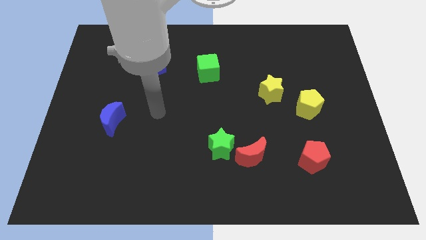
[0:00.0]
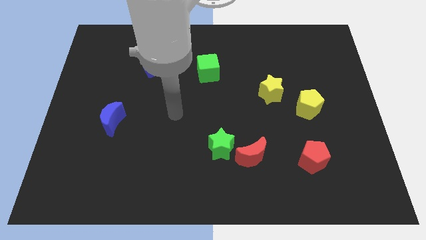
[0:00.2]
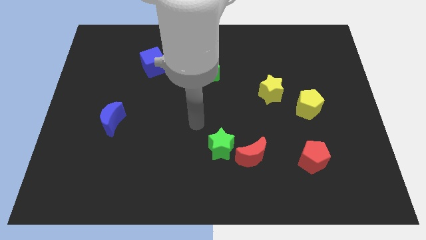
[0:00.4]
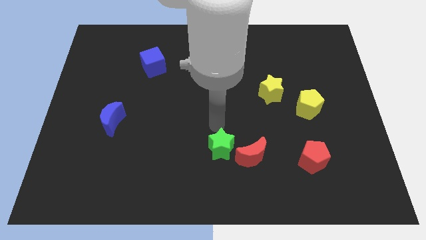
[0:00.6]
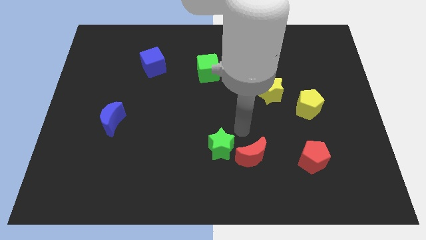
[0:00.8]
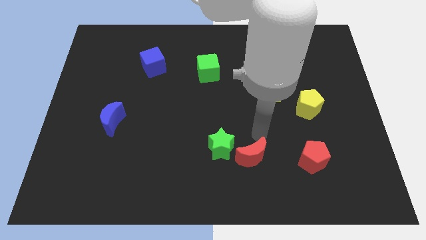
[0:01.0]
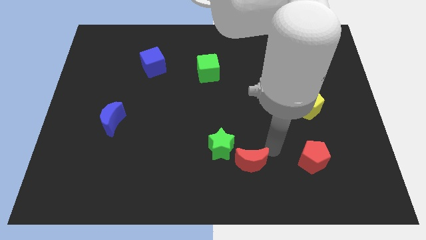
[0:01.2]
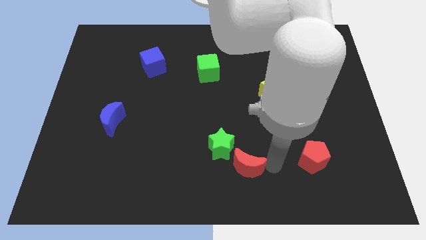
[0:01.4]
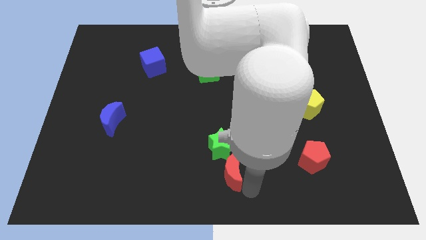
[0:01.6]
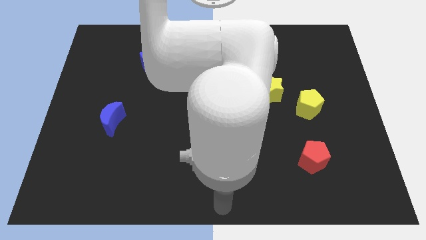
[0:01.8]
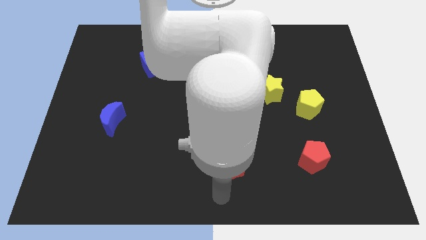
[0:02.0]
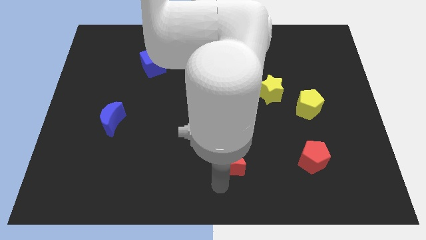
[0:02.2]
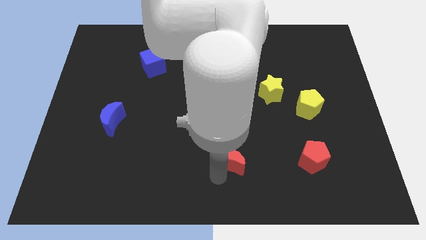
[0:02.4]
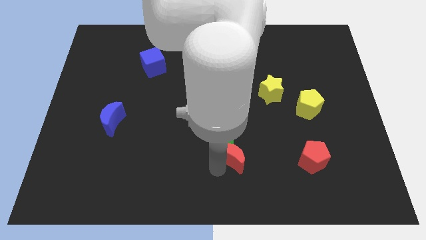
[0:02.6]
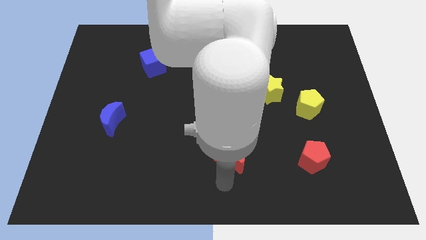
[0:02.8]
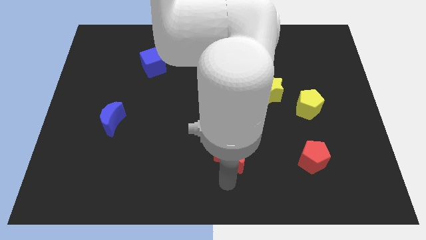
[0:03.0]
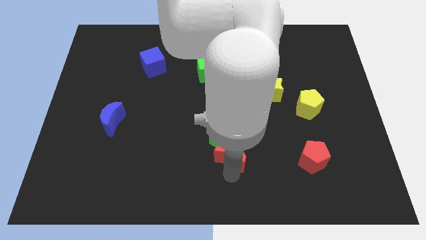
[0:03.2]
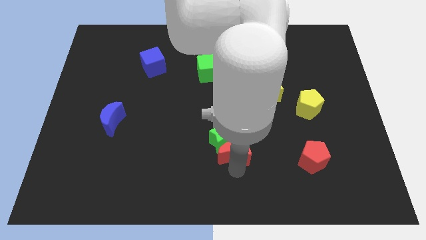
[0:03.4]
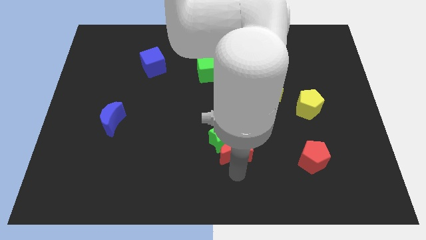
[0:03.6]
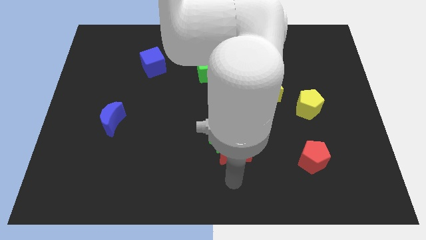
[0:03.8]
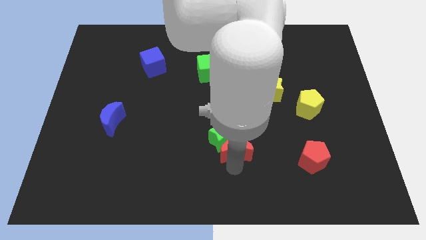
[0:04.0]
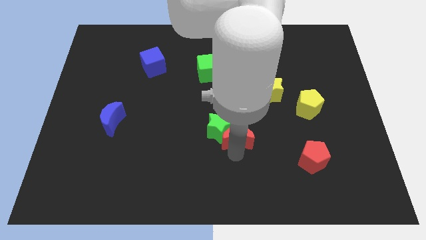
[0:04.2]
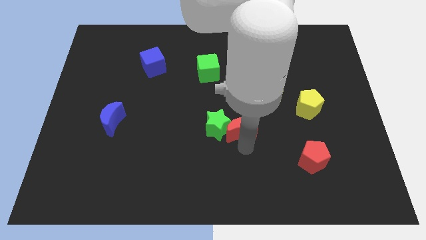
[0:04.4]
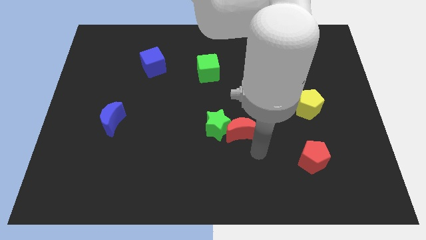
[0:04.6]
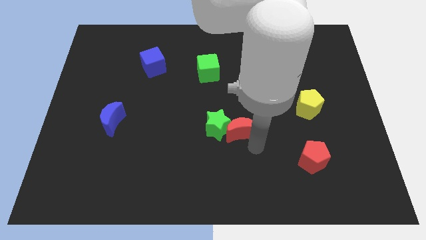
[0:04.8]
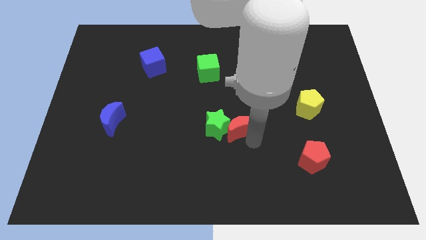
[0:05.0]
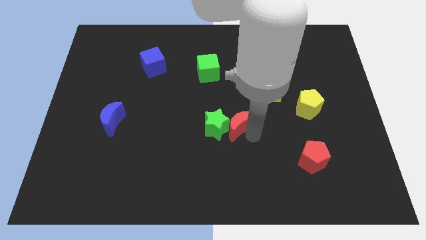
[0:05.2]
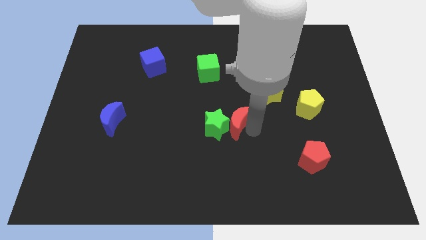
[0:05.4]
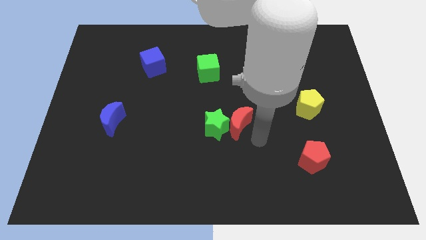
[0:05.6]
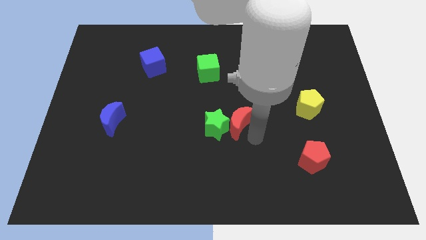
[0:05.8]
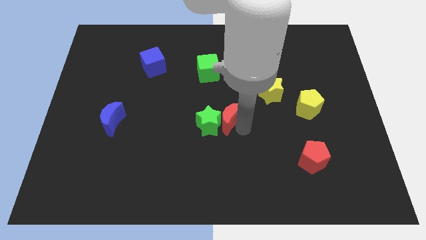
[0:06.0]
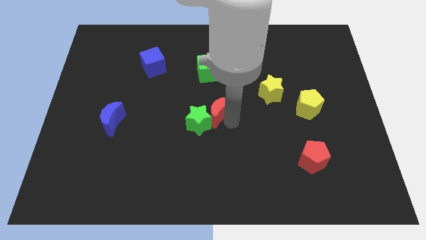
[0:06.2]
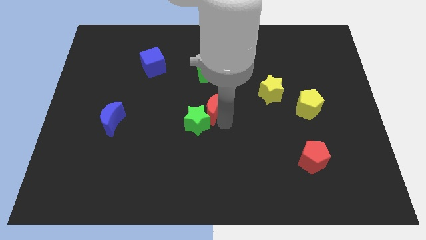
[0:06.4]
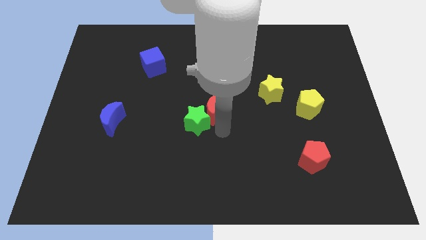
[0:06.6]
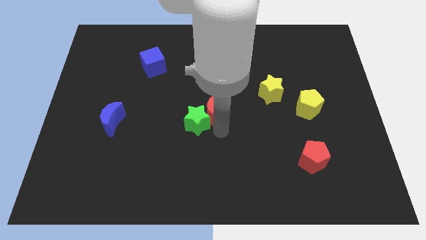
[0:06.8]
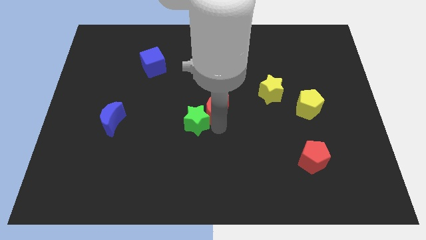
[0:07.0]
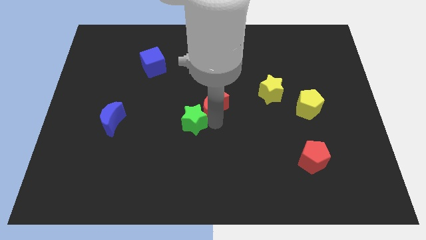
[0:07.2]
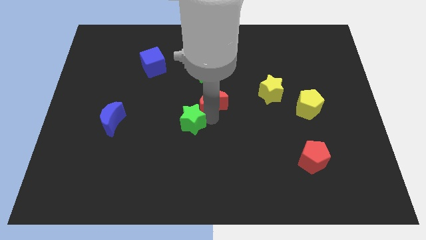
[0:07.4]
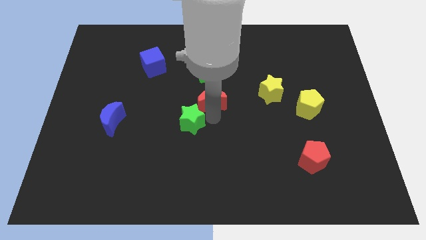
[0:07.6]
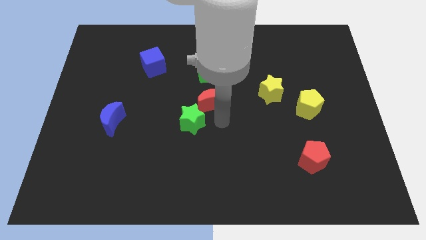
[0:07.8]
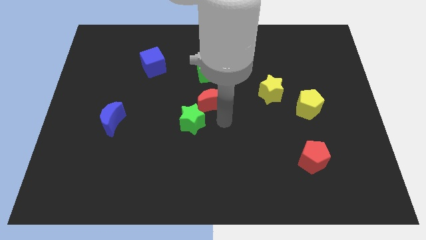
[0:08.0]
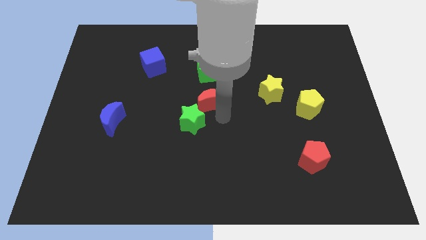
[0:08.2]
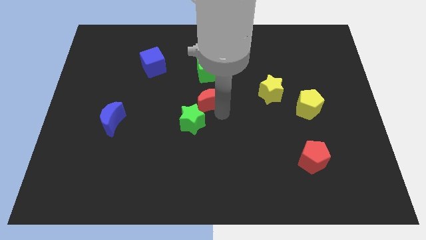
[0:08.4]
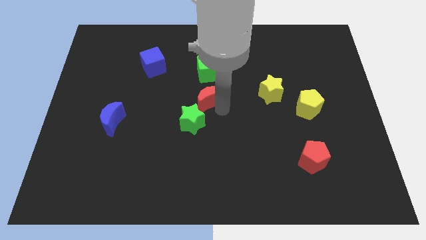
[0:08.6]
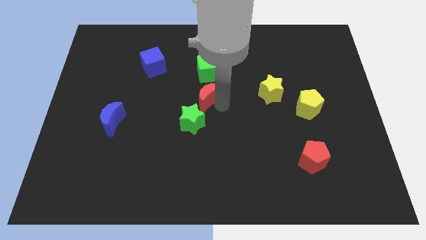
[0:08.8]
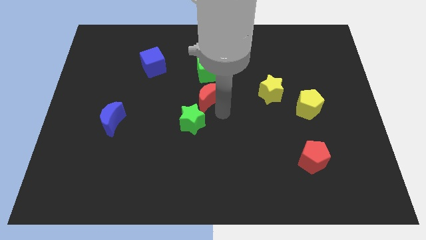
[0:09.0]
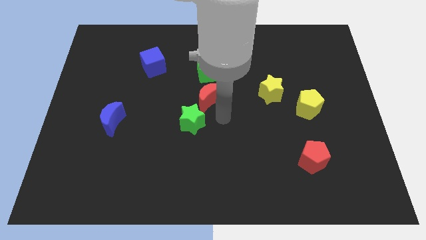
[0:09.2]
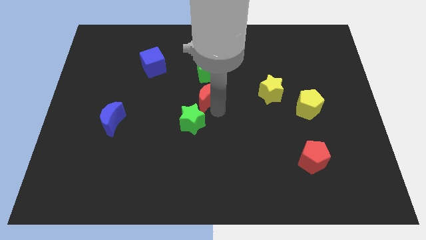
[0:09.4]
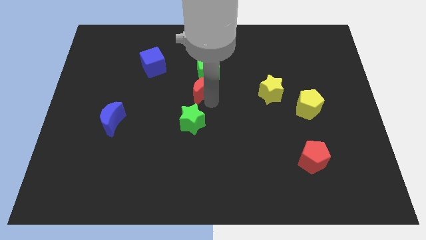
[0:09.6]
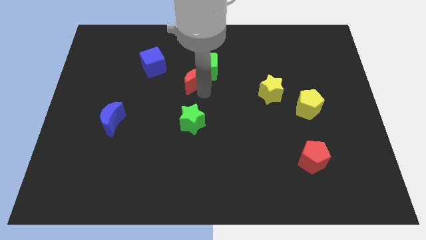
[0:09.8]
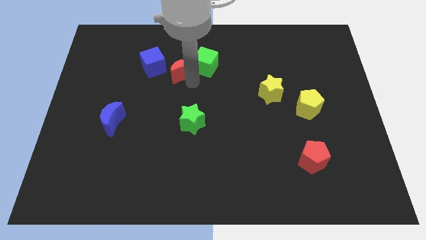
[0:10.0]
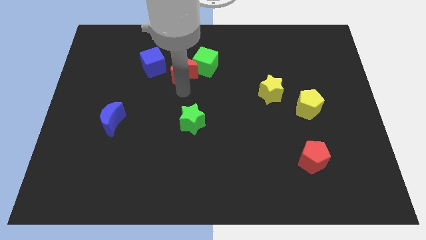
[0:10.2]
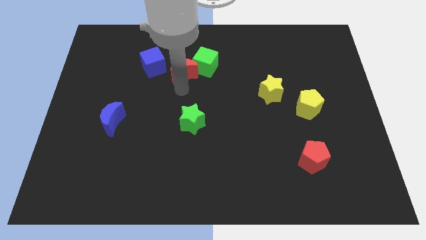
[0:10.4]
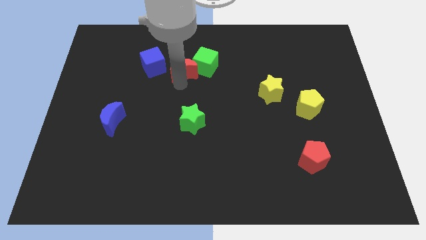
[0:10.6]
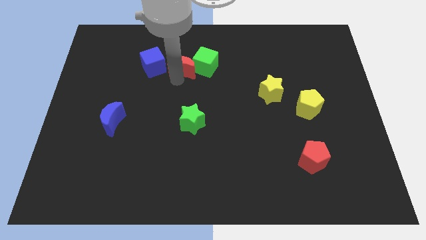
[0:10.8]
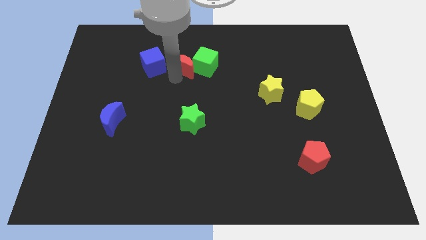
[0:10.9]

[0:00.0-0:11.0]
push the red moon to the top left side of the green cube
